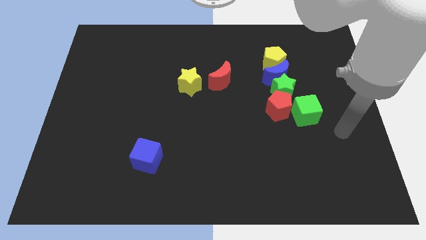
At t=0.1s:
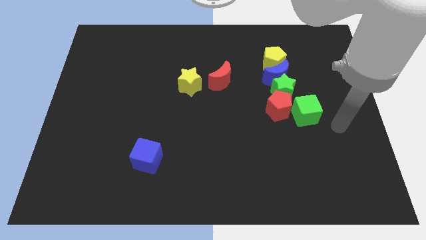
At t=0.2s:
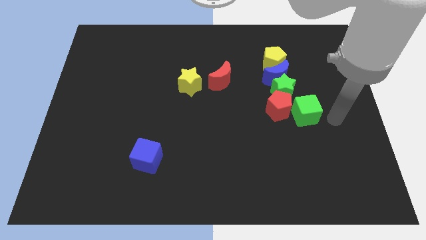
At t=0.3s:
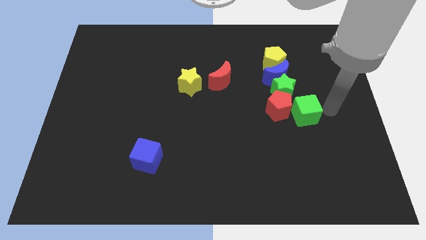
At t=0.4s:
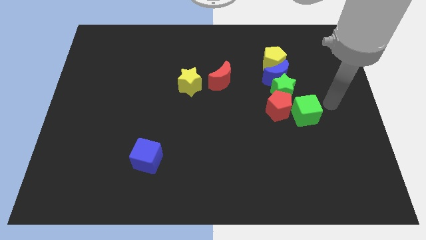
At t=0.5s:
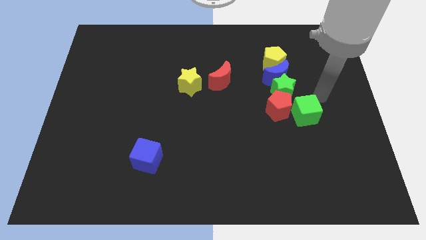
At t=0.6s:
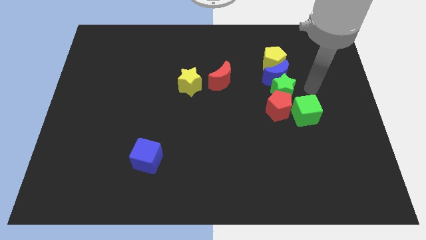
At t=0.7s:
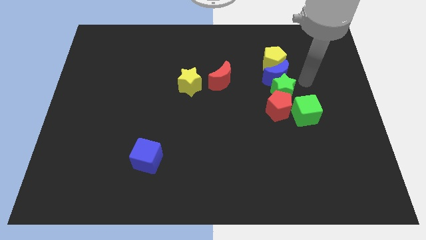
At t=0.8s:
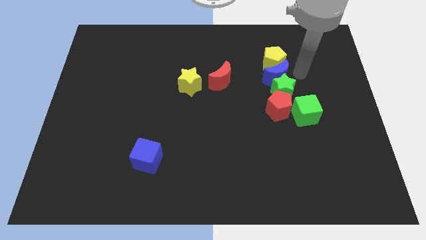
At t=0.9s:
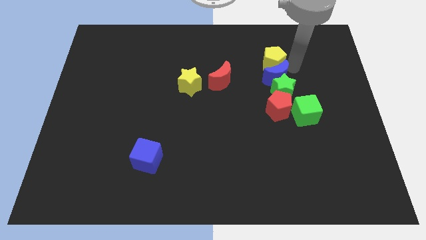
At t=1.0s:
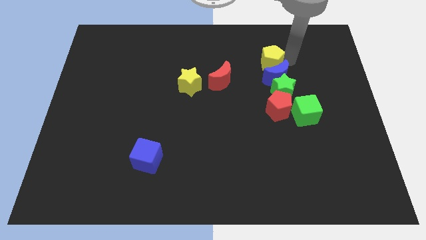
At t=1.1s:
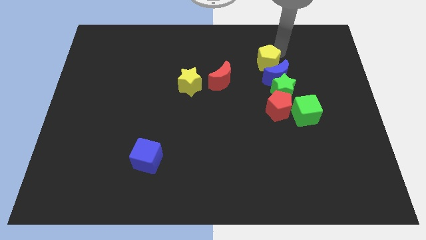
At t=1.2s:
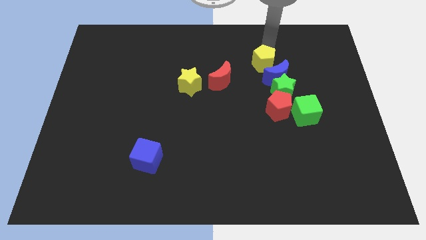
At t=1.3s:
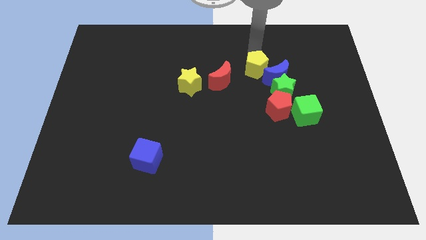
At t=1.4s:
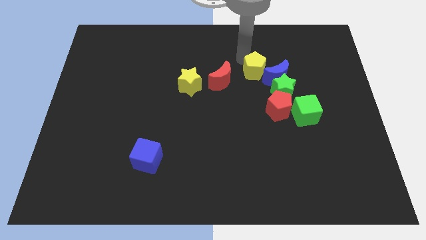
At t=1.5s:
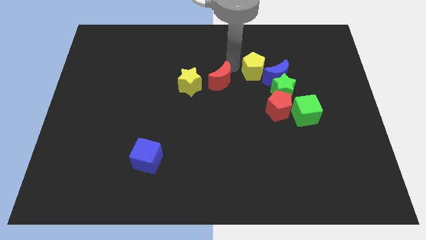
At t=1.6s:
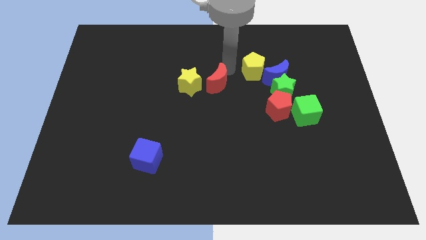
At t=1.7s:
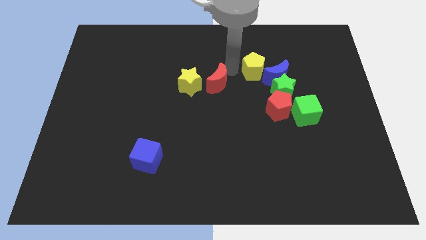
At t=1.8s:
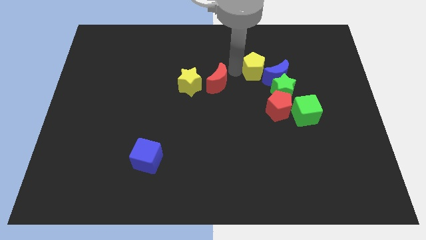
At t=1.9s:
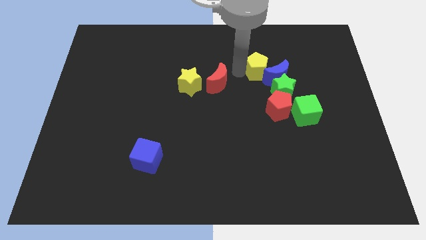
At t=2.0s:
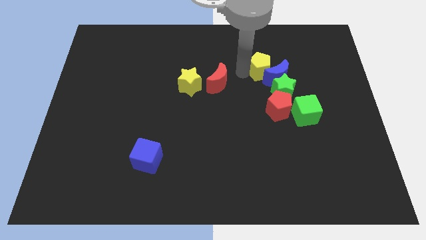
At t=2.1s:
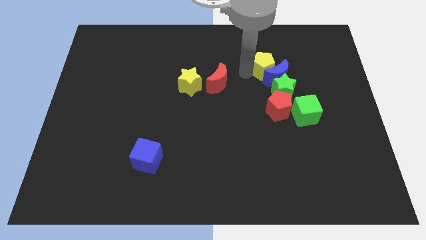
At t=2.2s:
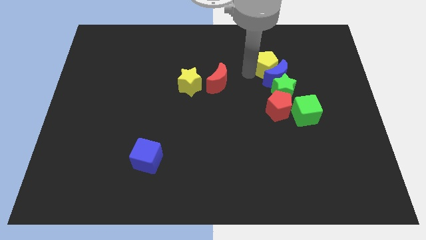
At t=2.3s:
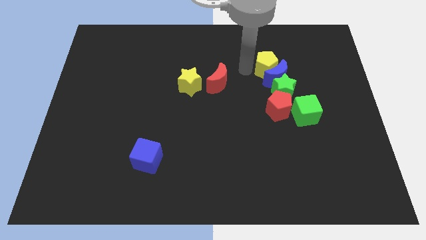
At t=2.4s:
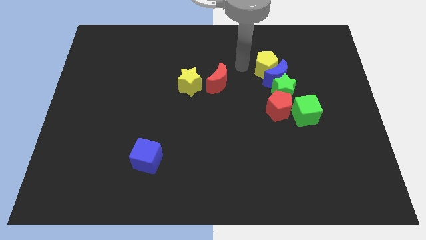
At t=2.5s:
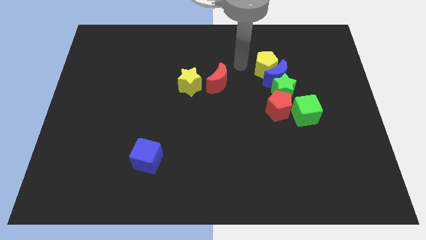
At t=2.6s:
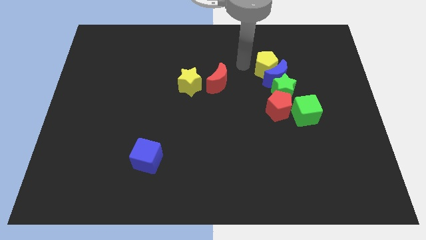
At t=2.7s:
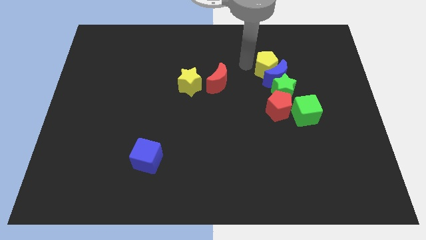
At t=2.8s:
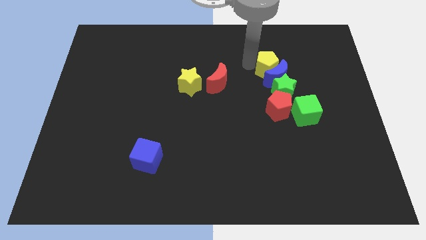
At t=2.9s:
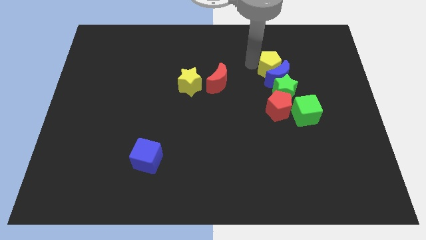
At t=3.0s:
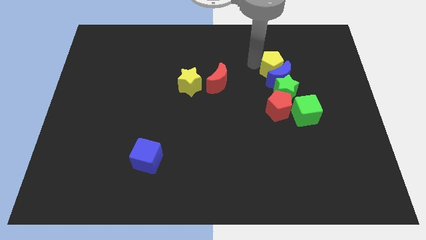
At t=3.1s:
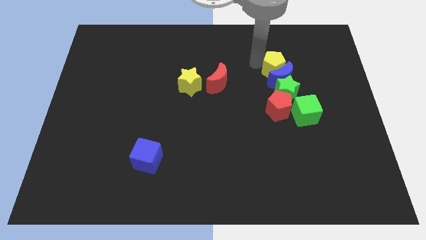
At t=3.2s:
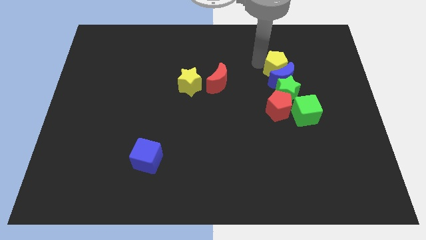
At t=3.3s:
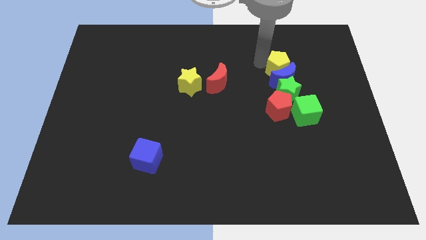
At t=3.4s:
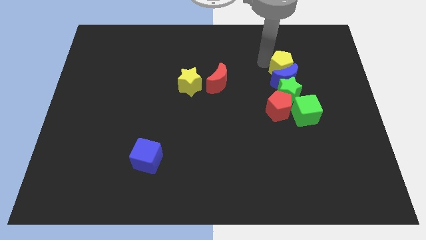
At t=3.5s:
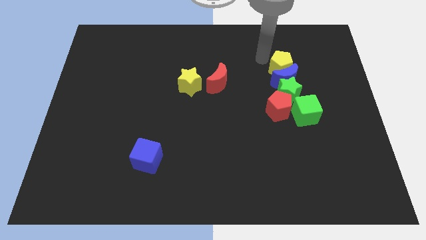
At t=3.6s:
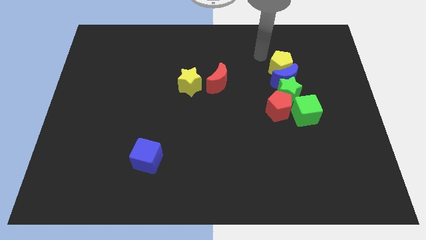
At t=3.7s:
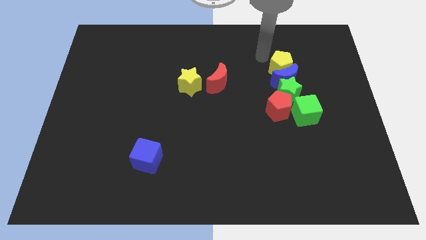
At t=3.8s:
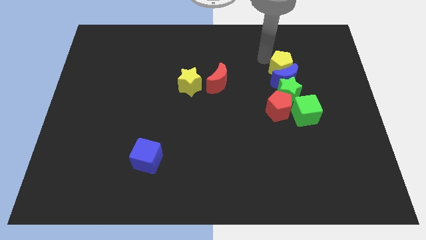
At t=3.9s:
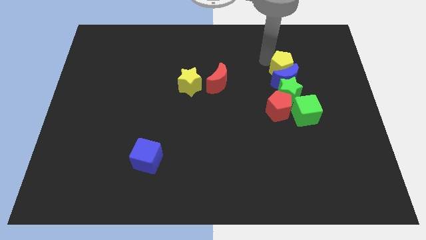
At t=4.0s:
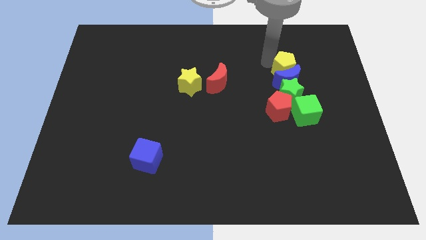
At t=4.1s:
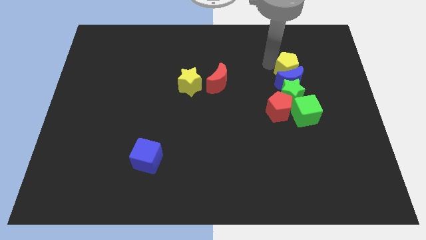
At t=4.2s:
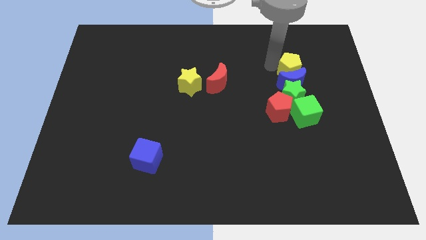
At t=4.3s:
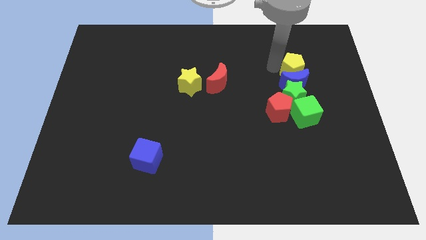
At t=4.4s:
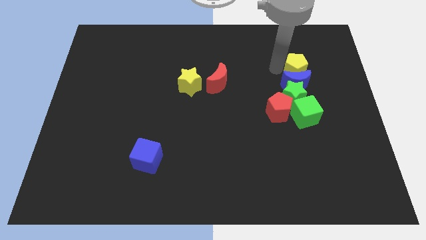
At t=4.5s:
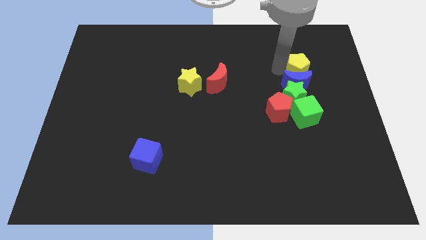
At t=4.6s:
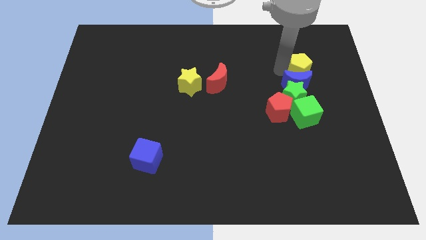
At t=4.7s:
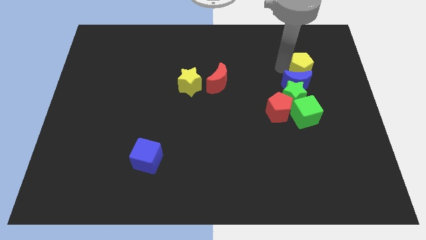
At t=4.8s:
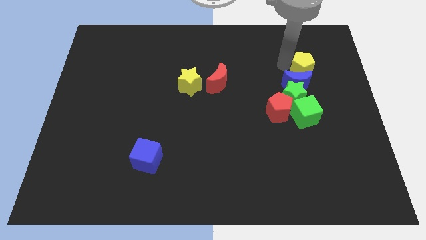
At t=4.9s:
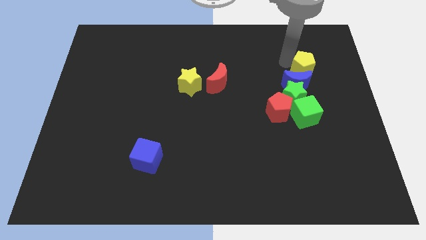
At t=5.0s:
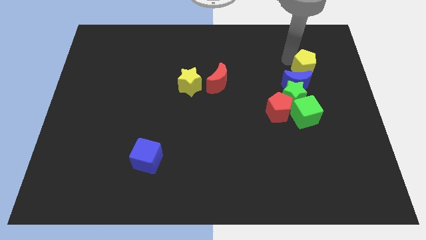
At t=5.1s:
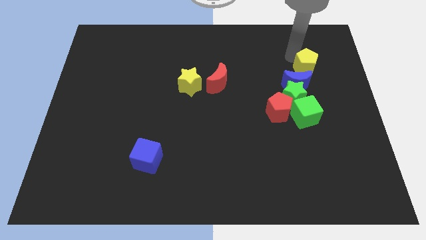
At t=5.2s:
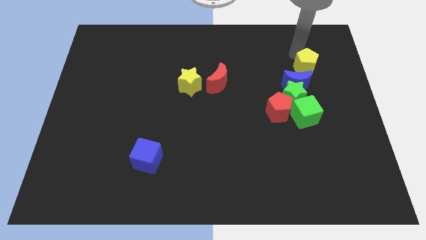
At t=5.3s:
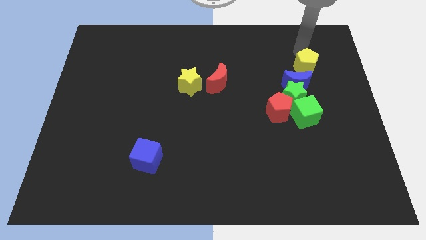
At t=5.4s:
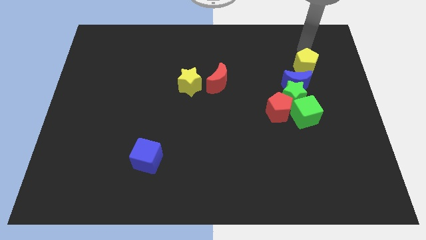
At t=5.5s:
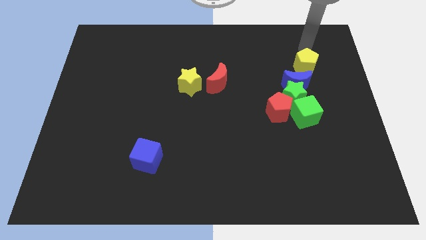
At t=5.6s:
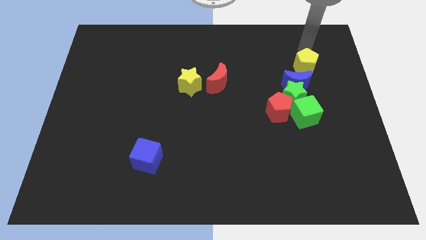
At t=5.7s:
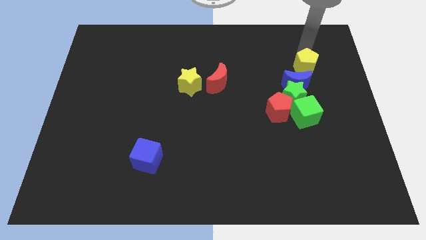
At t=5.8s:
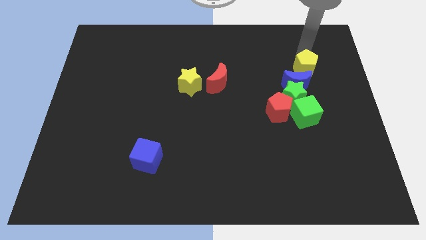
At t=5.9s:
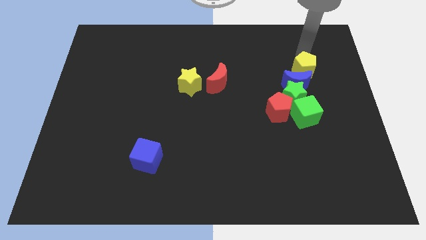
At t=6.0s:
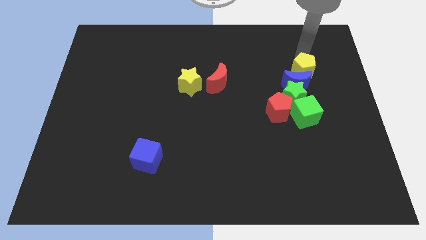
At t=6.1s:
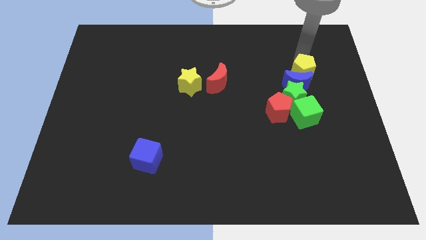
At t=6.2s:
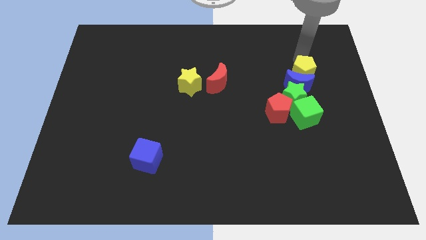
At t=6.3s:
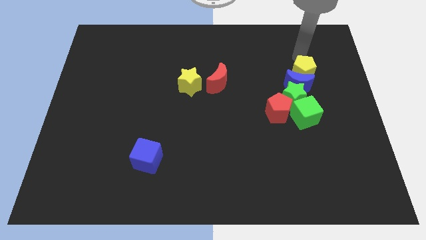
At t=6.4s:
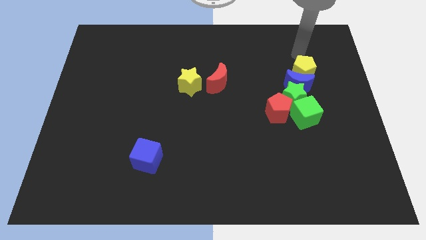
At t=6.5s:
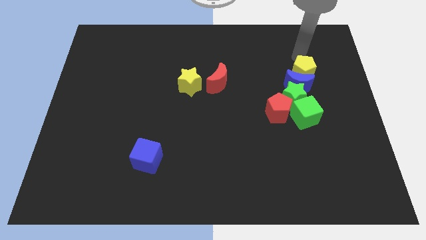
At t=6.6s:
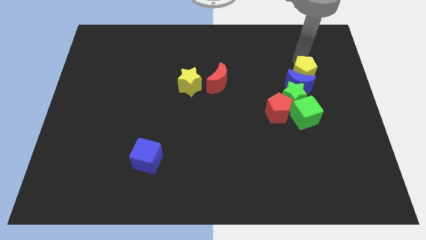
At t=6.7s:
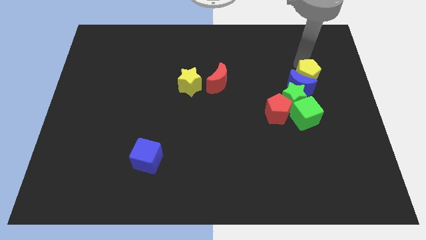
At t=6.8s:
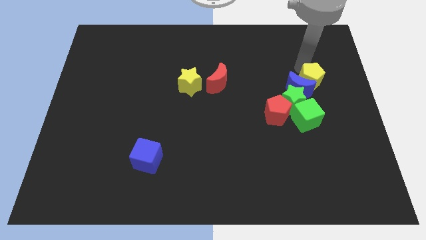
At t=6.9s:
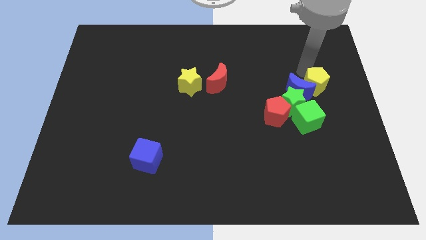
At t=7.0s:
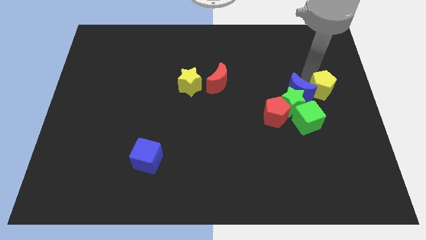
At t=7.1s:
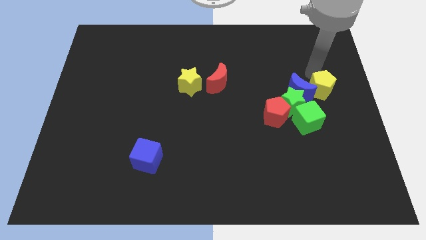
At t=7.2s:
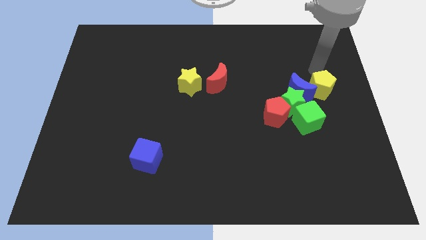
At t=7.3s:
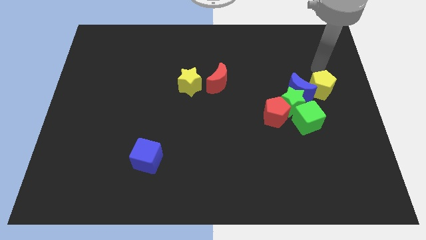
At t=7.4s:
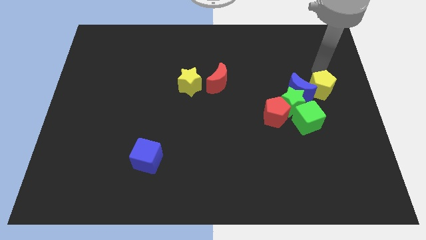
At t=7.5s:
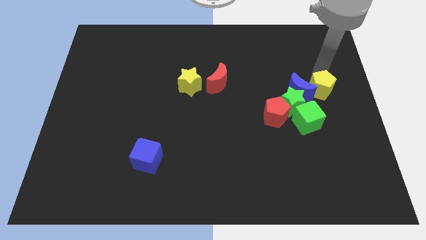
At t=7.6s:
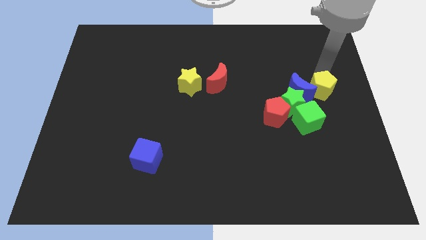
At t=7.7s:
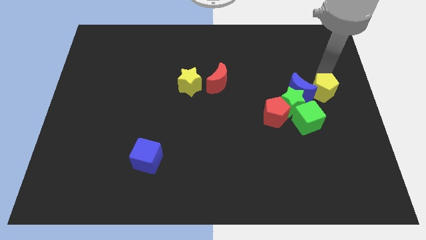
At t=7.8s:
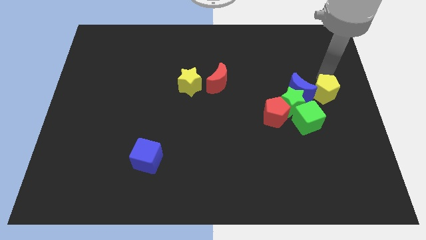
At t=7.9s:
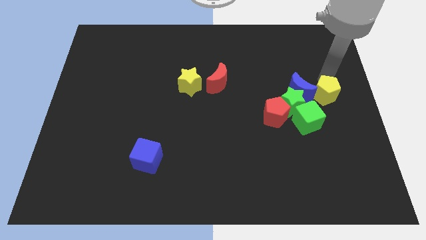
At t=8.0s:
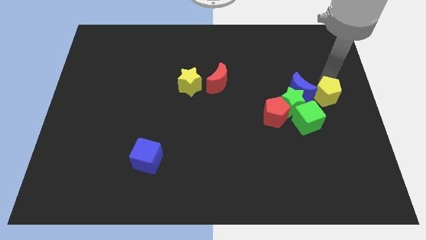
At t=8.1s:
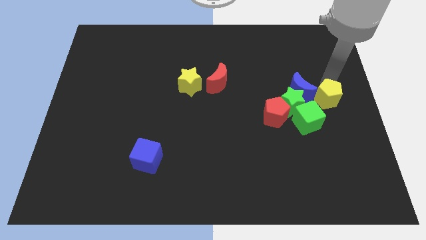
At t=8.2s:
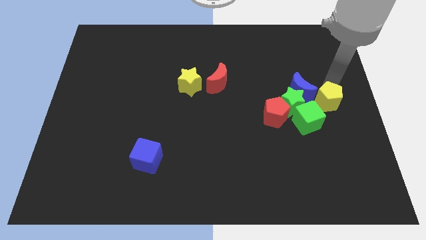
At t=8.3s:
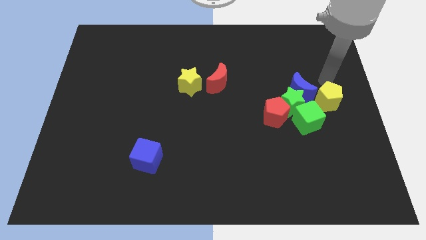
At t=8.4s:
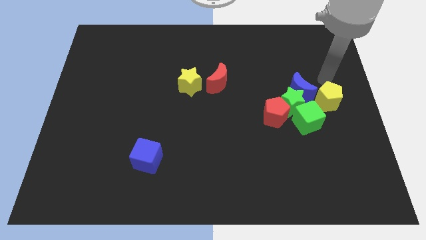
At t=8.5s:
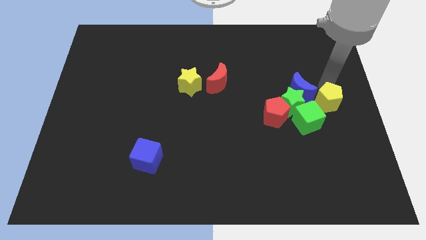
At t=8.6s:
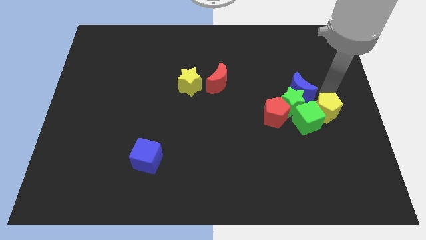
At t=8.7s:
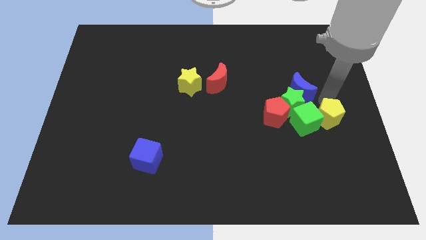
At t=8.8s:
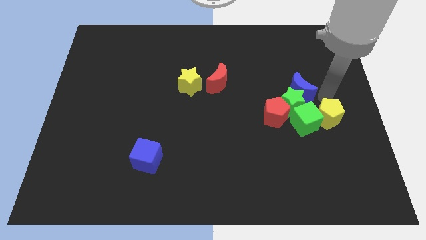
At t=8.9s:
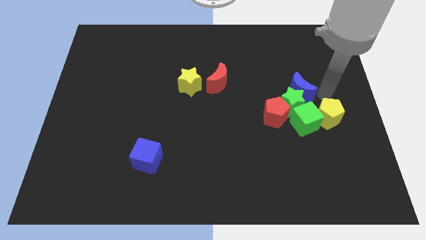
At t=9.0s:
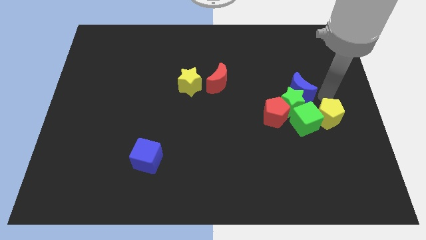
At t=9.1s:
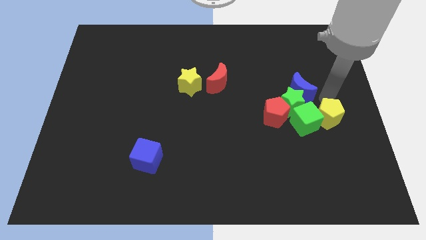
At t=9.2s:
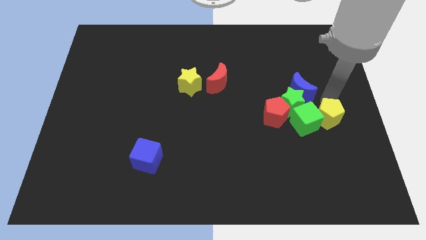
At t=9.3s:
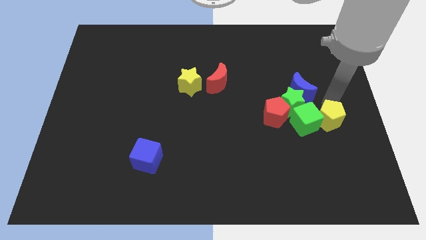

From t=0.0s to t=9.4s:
push the yellow pentagon to the bottom right of the green cube
